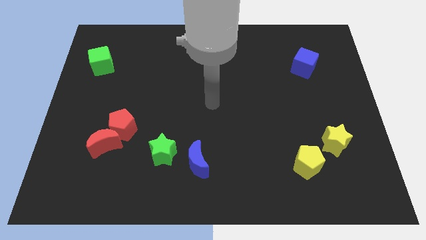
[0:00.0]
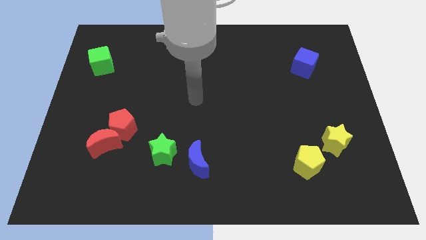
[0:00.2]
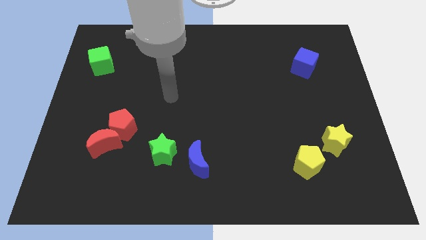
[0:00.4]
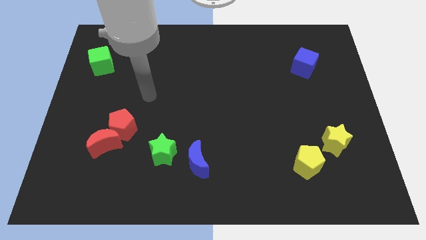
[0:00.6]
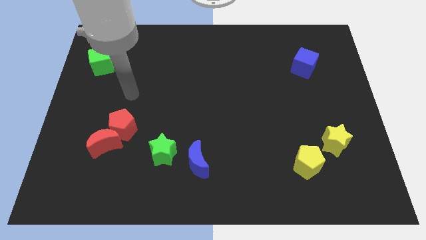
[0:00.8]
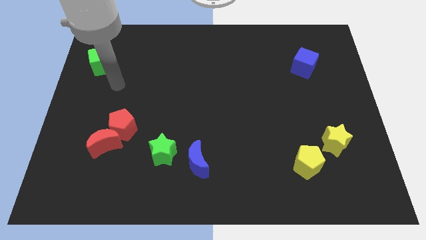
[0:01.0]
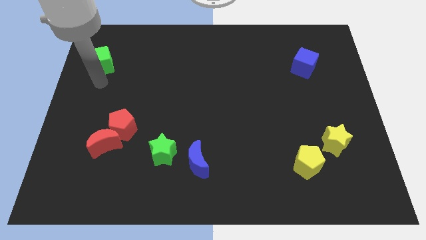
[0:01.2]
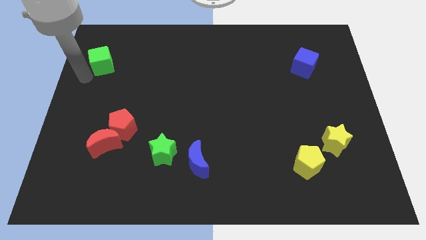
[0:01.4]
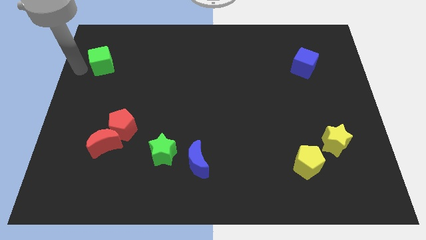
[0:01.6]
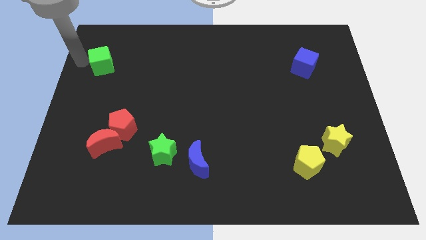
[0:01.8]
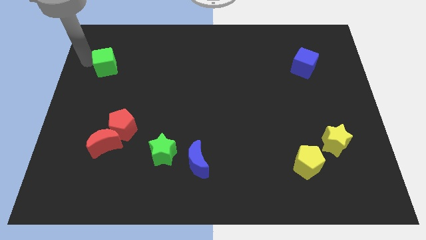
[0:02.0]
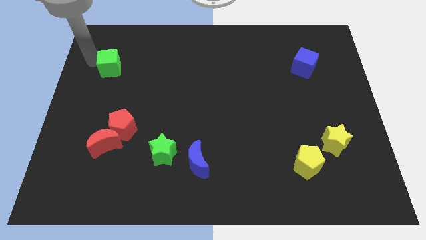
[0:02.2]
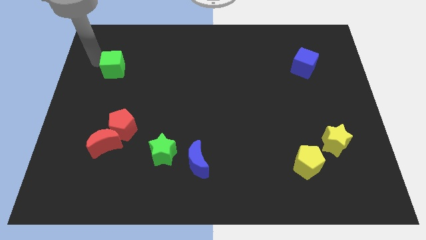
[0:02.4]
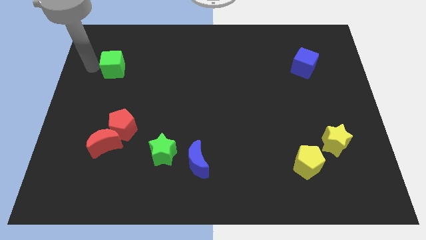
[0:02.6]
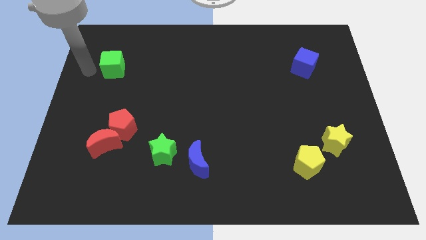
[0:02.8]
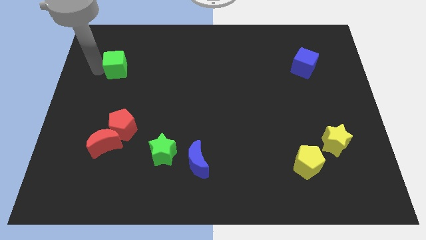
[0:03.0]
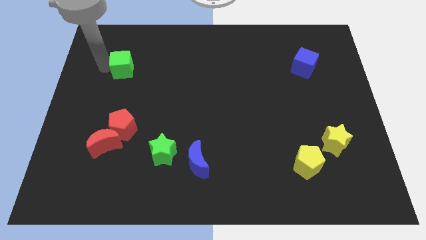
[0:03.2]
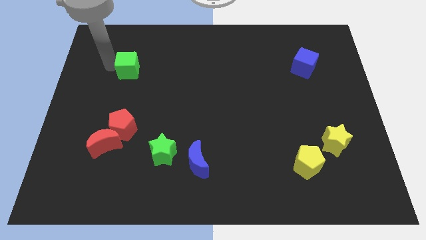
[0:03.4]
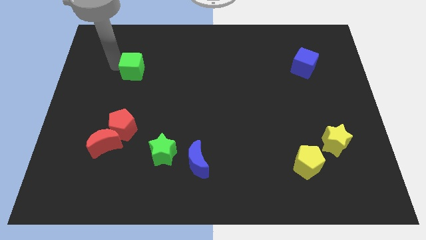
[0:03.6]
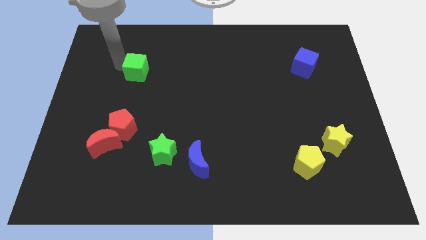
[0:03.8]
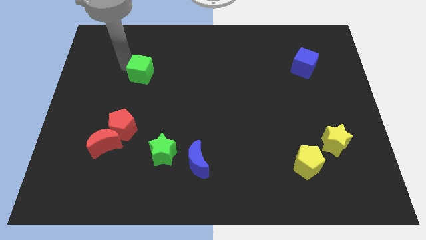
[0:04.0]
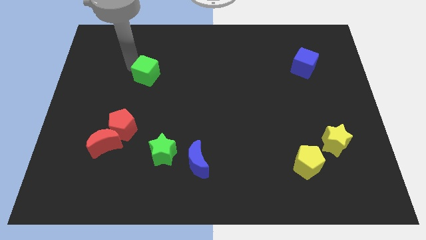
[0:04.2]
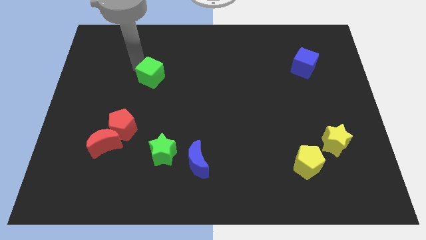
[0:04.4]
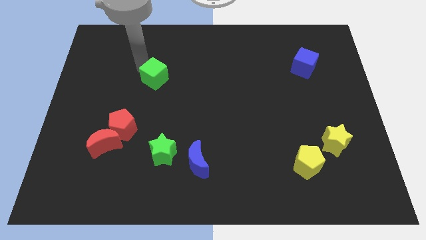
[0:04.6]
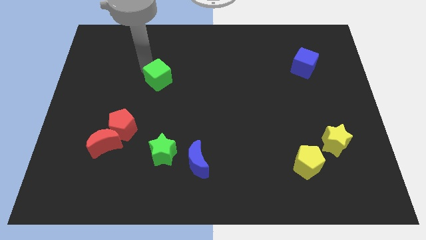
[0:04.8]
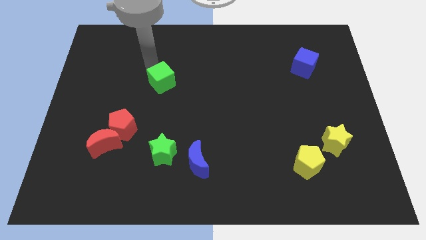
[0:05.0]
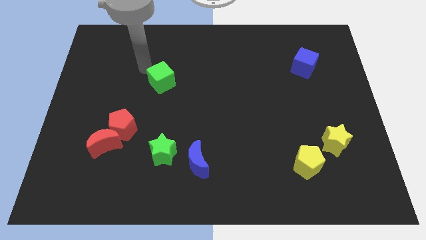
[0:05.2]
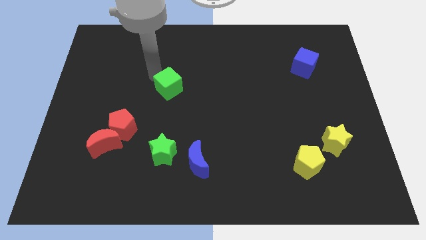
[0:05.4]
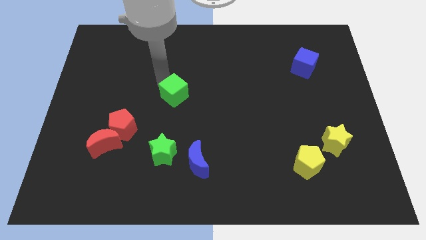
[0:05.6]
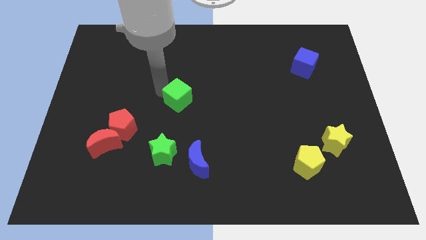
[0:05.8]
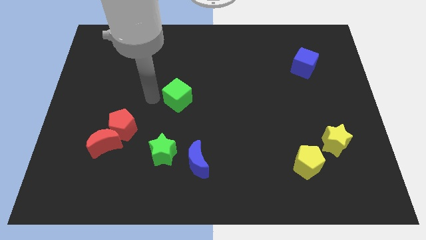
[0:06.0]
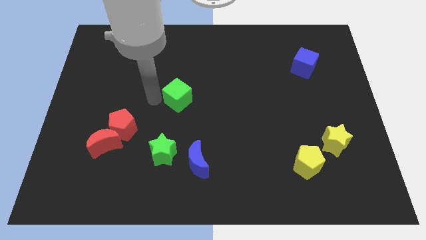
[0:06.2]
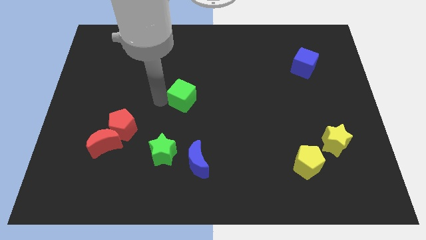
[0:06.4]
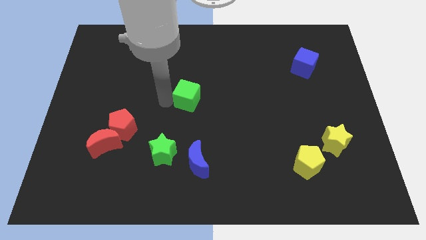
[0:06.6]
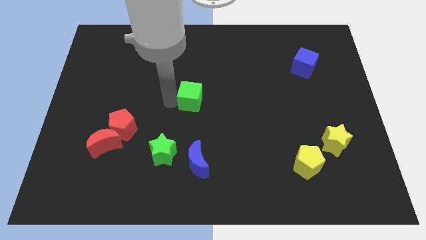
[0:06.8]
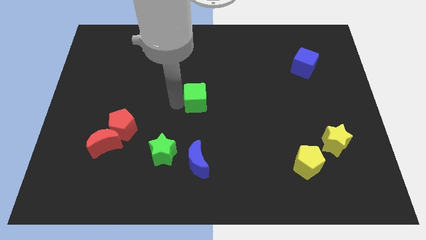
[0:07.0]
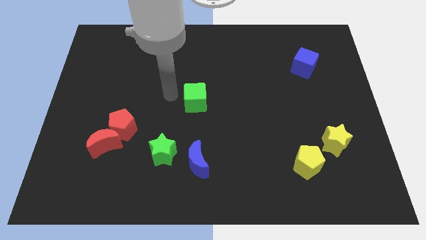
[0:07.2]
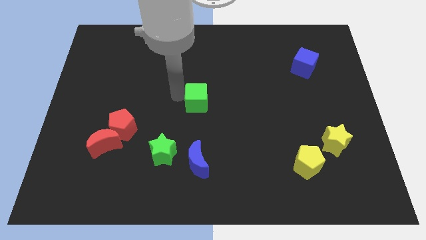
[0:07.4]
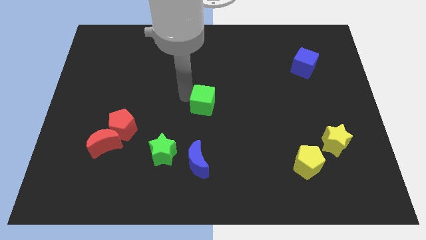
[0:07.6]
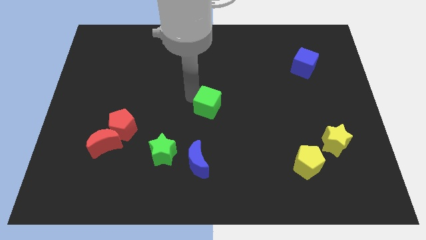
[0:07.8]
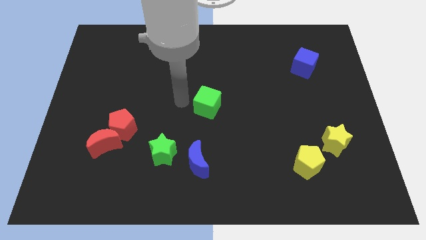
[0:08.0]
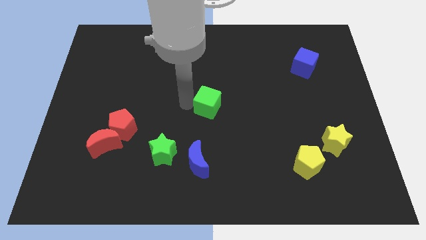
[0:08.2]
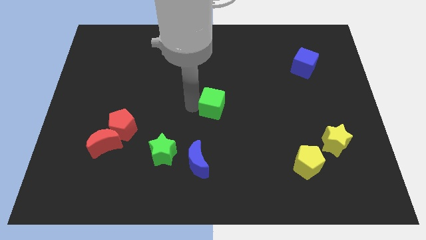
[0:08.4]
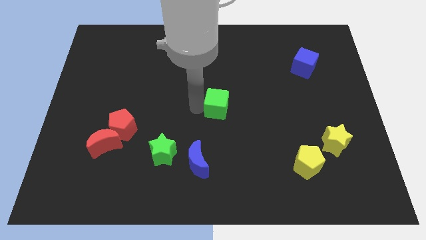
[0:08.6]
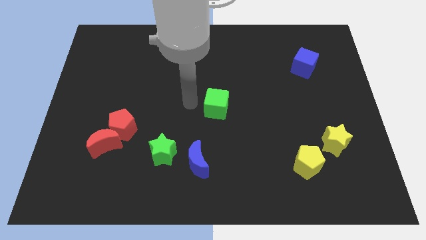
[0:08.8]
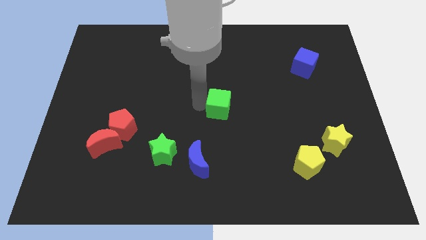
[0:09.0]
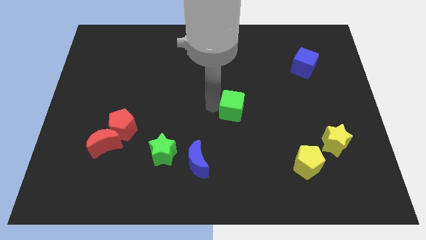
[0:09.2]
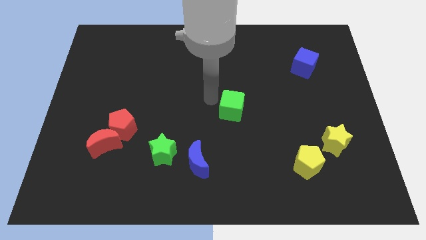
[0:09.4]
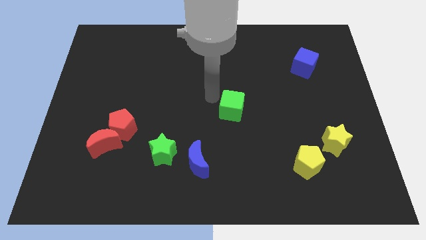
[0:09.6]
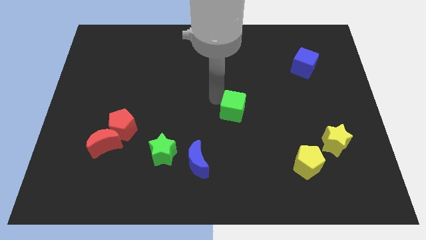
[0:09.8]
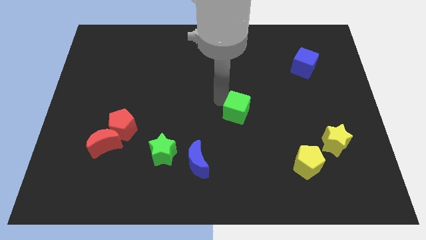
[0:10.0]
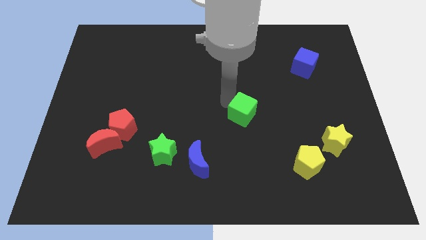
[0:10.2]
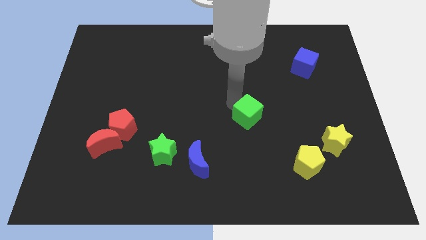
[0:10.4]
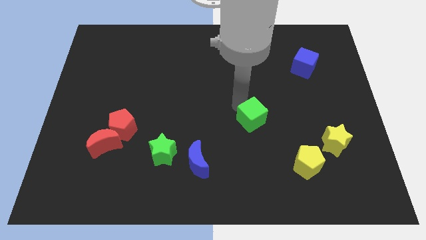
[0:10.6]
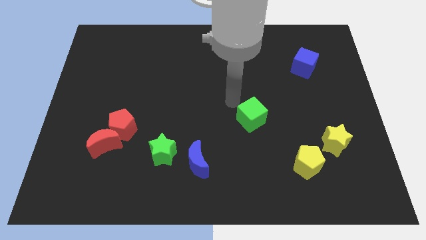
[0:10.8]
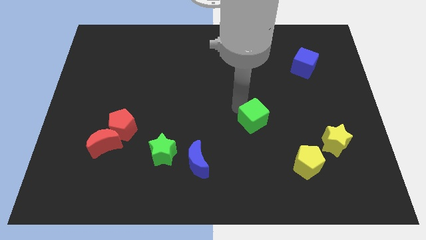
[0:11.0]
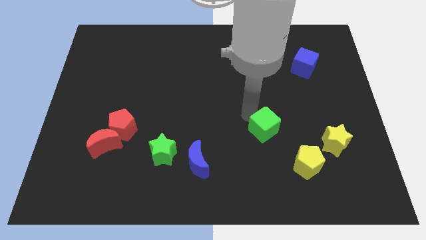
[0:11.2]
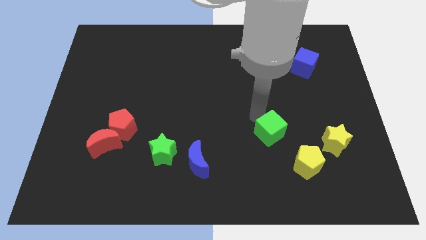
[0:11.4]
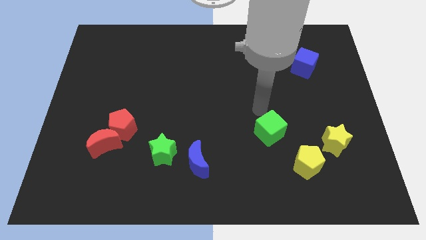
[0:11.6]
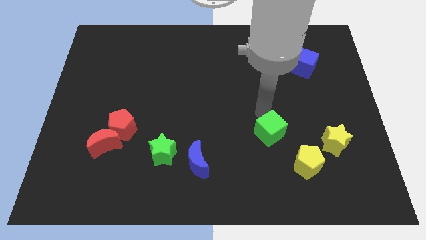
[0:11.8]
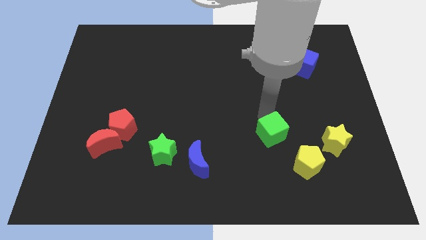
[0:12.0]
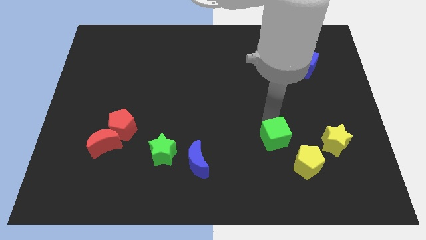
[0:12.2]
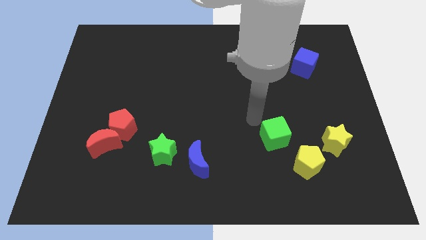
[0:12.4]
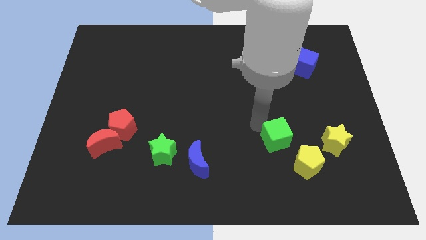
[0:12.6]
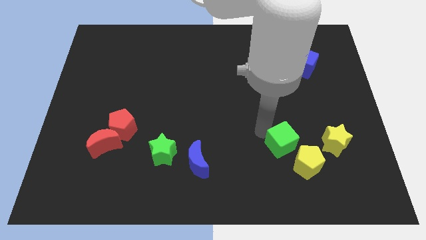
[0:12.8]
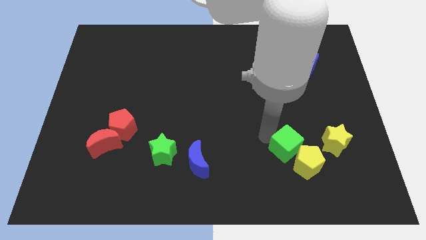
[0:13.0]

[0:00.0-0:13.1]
move the green cube next to the yellow pentagon
